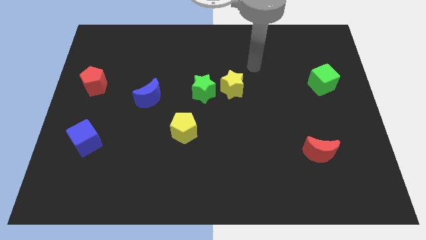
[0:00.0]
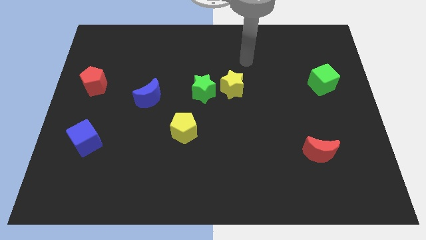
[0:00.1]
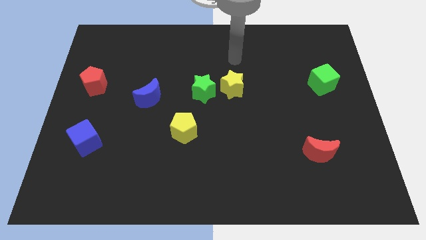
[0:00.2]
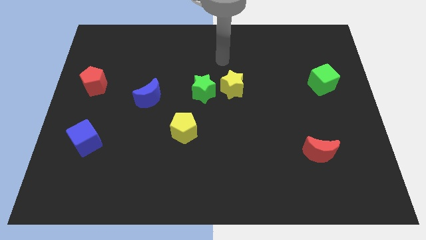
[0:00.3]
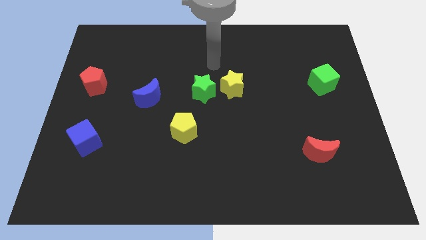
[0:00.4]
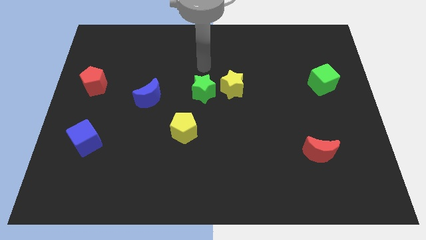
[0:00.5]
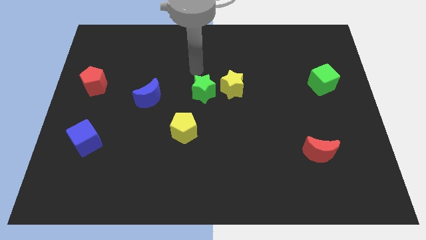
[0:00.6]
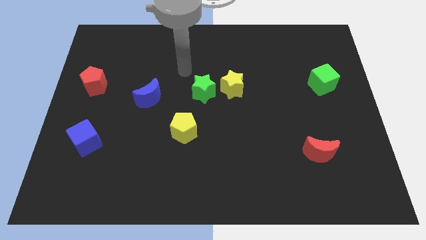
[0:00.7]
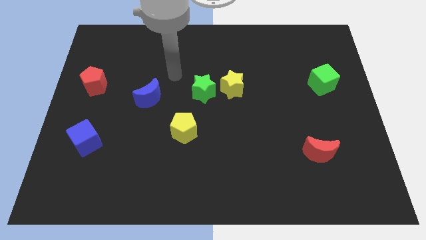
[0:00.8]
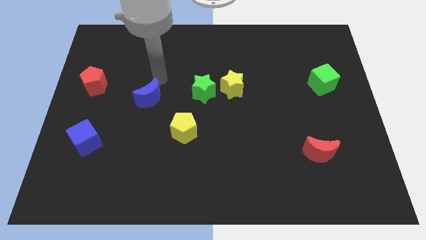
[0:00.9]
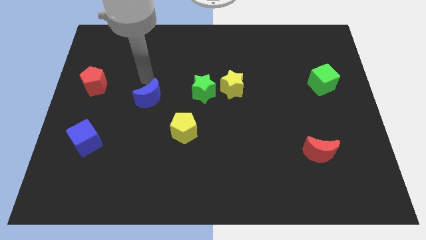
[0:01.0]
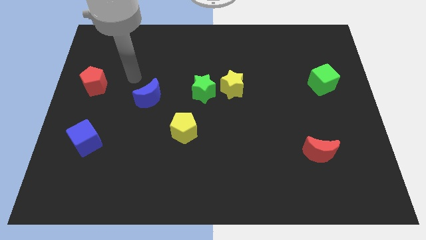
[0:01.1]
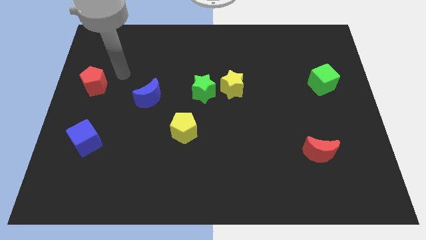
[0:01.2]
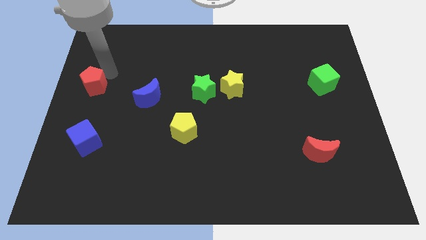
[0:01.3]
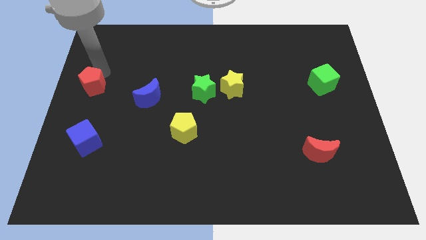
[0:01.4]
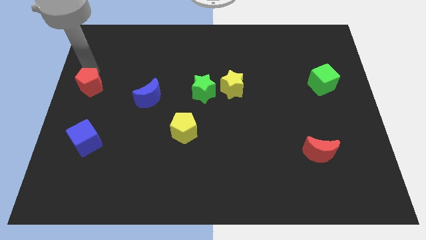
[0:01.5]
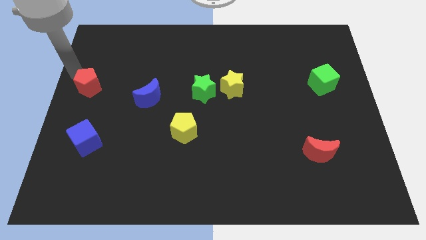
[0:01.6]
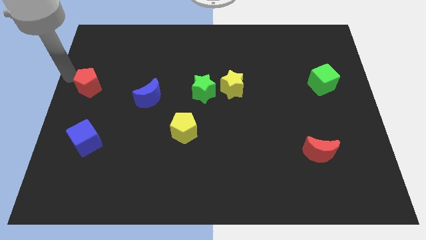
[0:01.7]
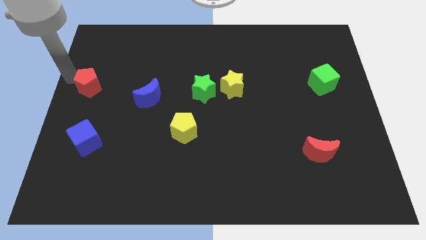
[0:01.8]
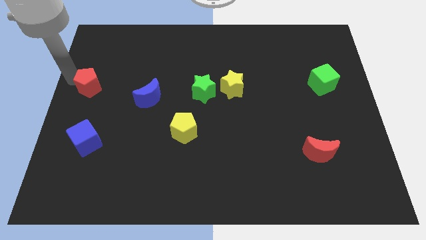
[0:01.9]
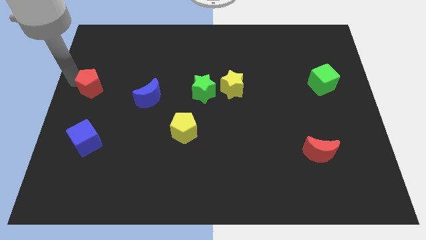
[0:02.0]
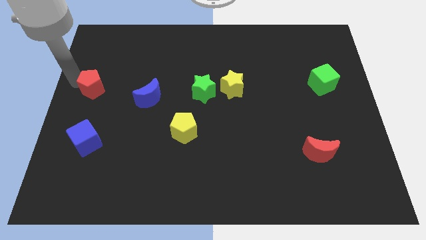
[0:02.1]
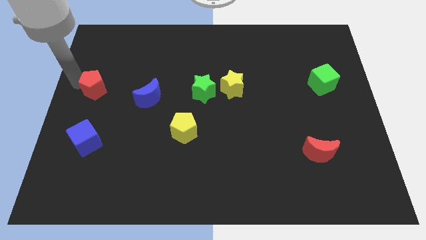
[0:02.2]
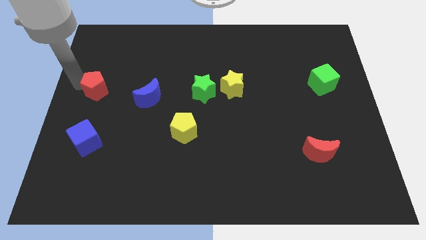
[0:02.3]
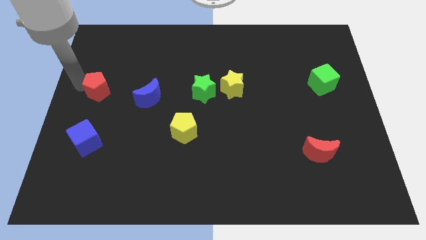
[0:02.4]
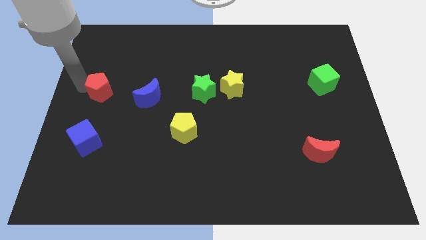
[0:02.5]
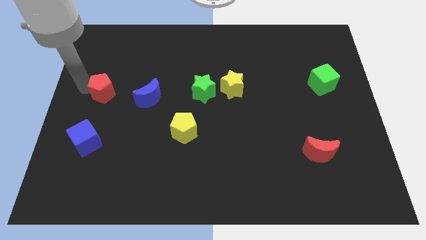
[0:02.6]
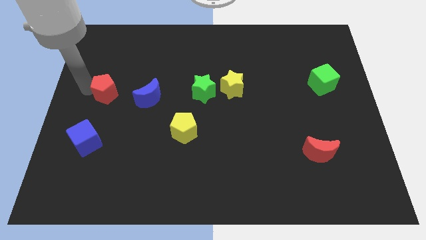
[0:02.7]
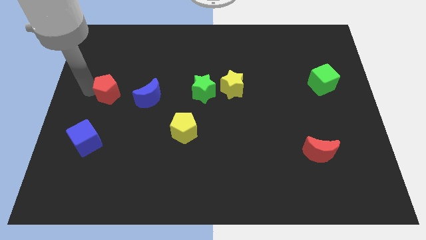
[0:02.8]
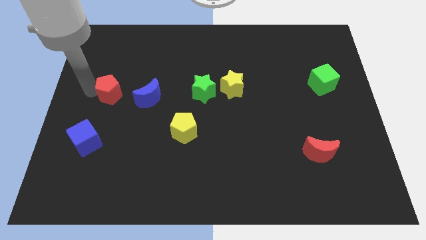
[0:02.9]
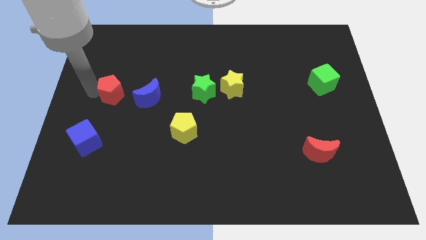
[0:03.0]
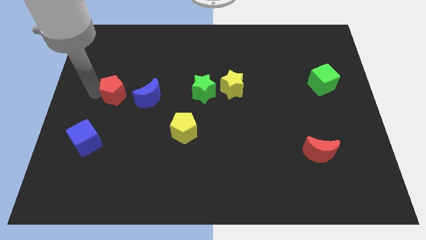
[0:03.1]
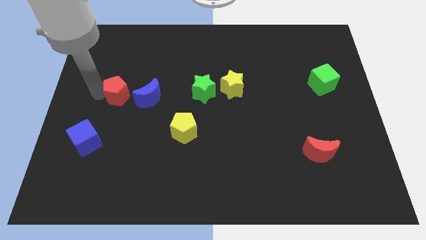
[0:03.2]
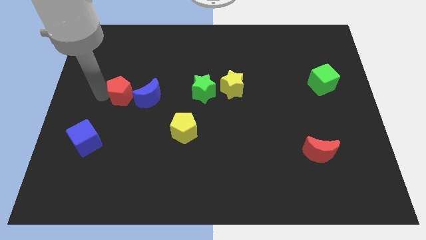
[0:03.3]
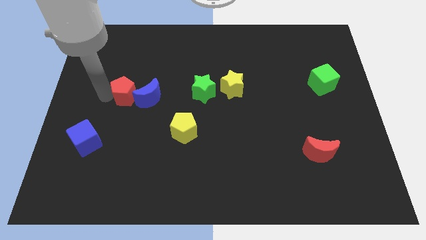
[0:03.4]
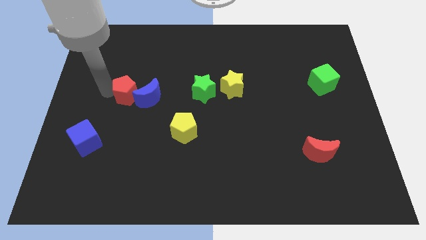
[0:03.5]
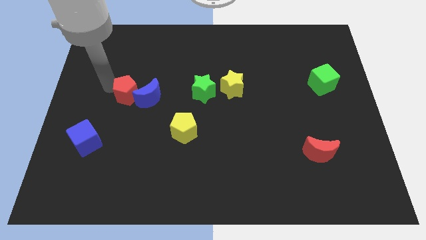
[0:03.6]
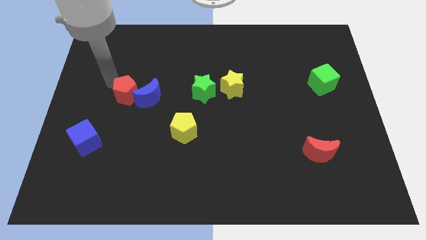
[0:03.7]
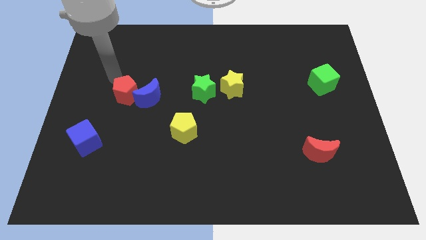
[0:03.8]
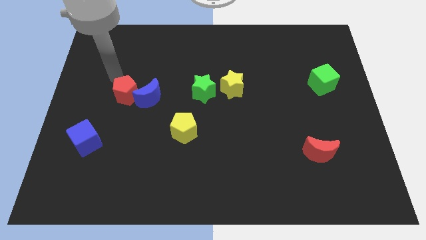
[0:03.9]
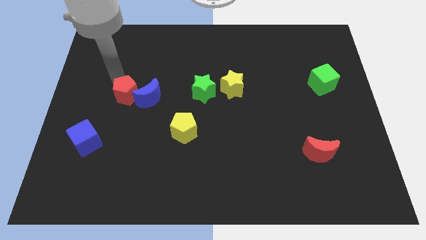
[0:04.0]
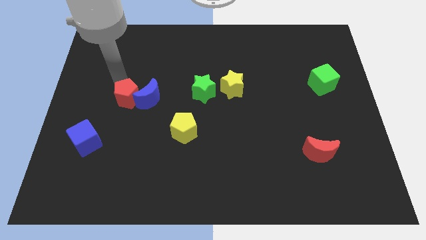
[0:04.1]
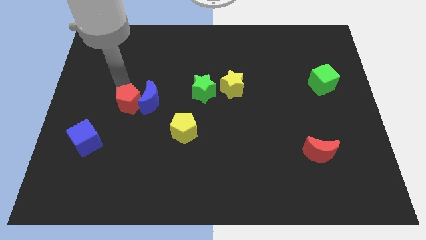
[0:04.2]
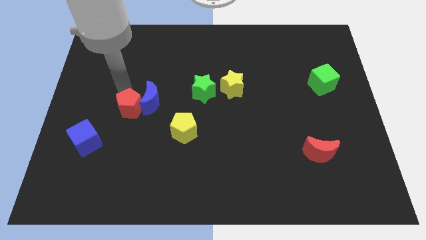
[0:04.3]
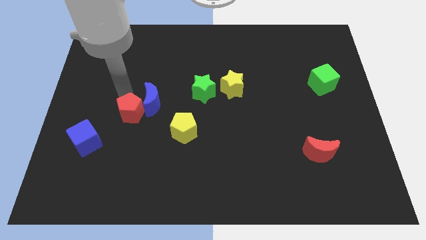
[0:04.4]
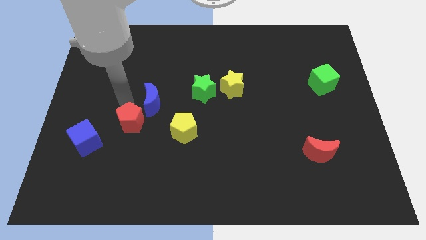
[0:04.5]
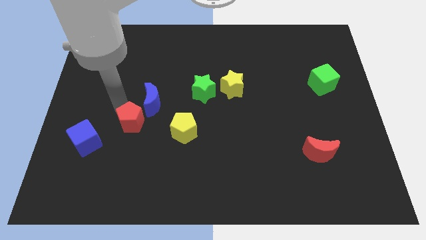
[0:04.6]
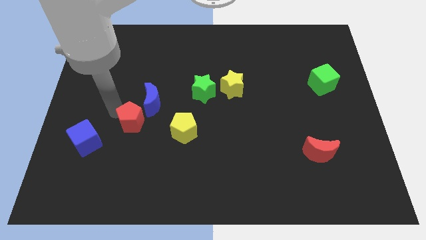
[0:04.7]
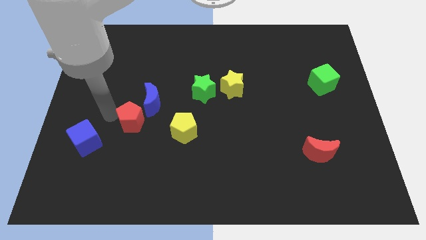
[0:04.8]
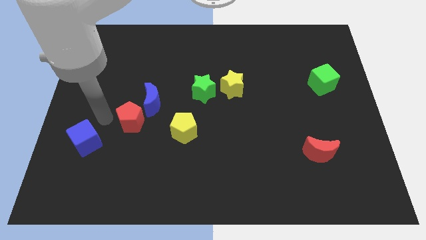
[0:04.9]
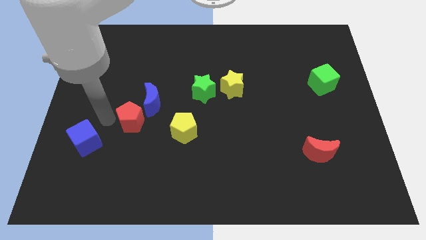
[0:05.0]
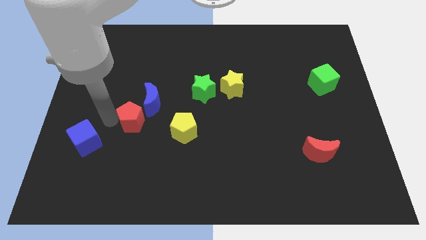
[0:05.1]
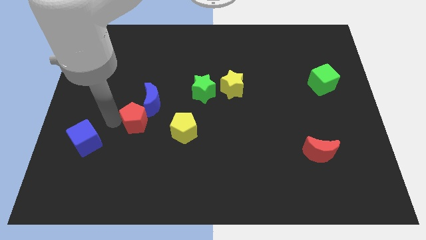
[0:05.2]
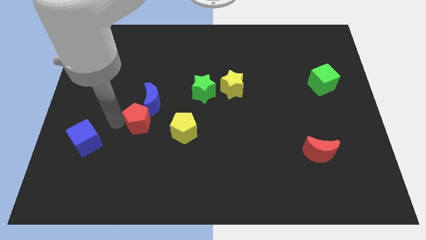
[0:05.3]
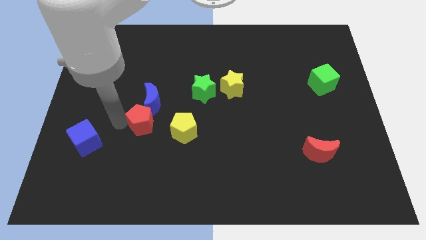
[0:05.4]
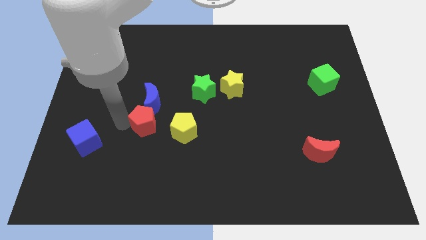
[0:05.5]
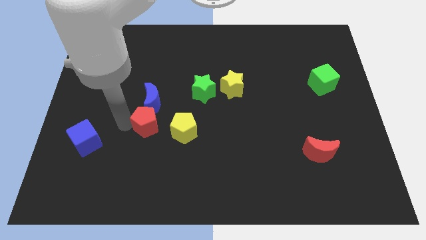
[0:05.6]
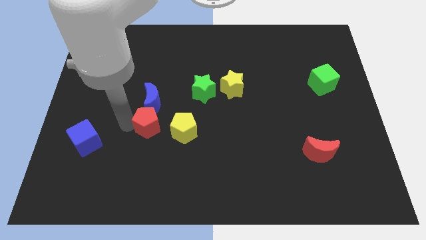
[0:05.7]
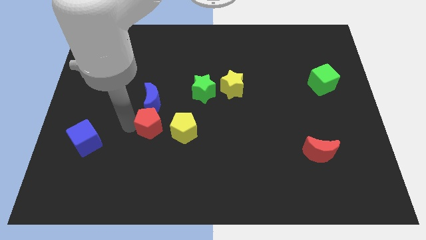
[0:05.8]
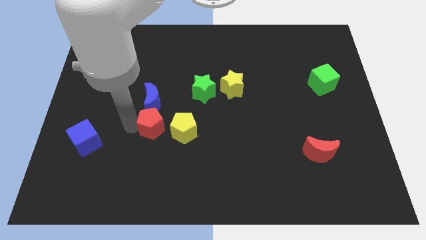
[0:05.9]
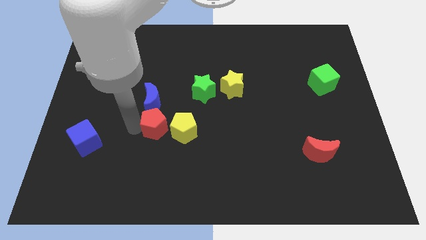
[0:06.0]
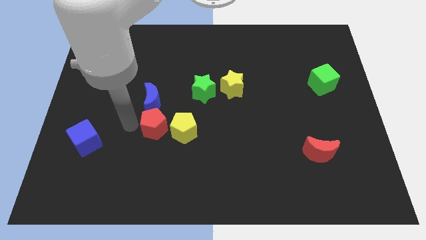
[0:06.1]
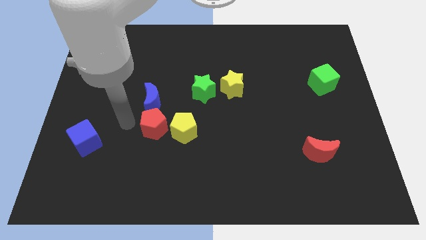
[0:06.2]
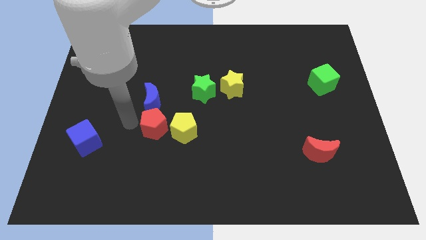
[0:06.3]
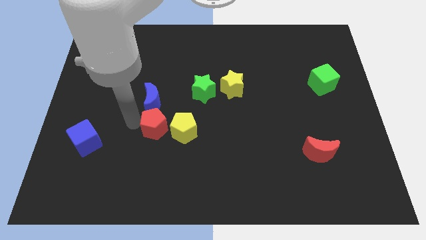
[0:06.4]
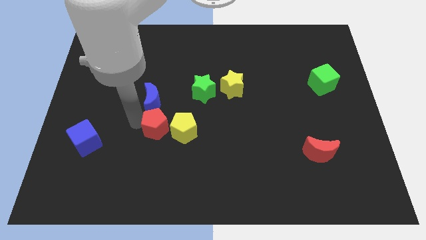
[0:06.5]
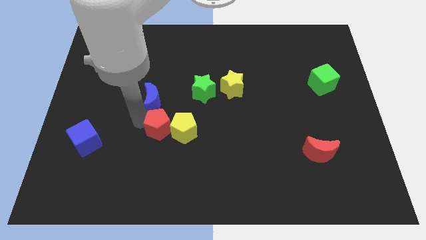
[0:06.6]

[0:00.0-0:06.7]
slide the red pentagon towards the yellow pentagon
